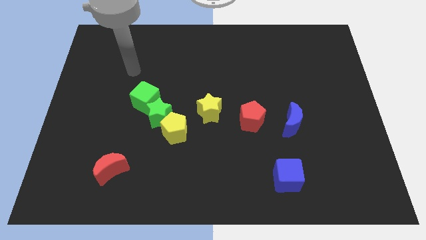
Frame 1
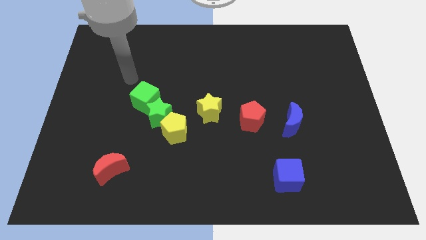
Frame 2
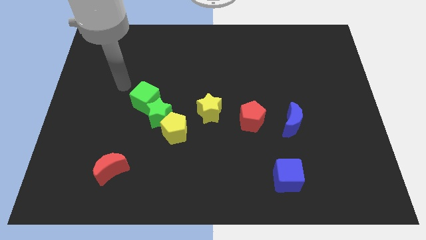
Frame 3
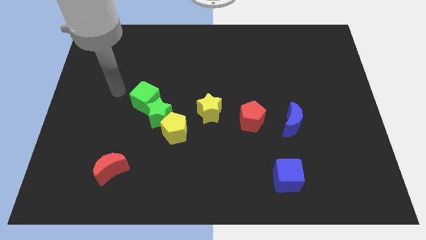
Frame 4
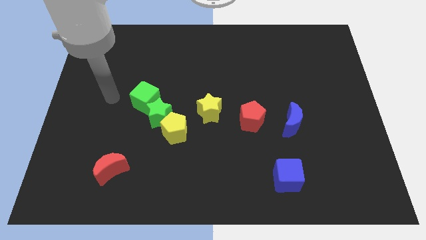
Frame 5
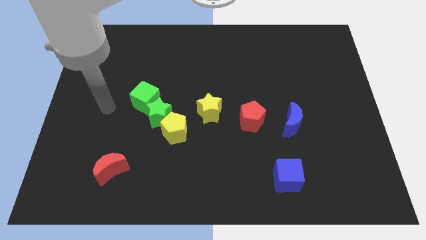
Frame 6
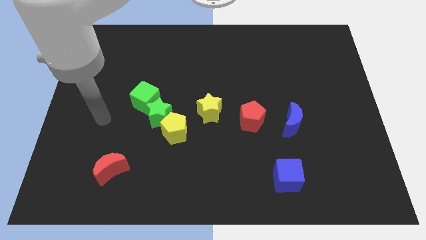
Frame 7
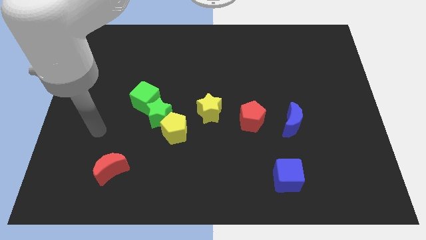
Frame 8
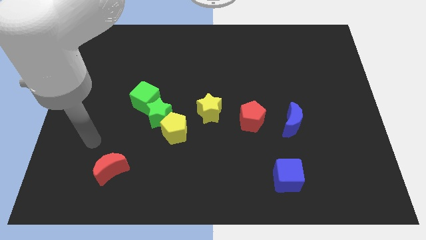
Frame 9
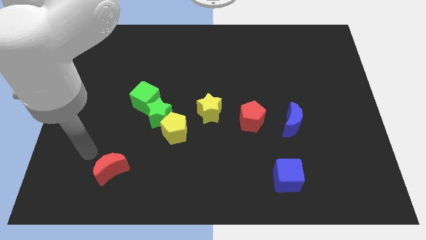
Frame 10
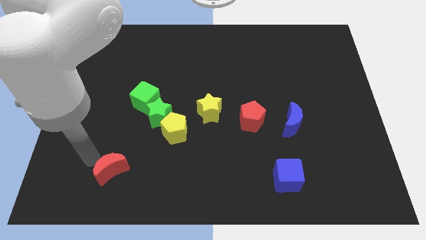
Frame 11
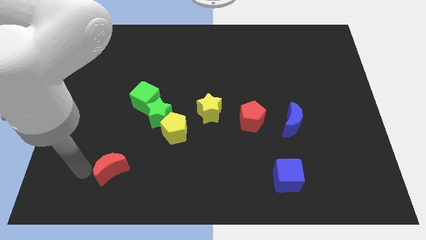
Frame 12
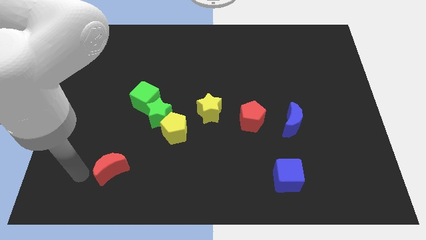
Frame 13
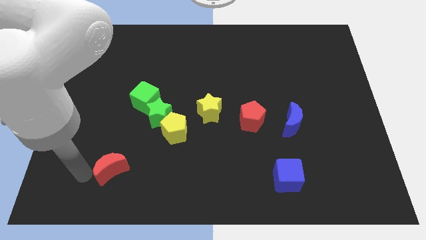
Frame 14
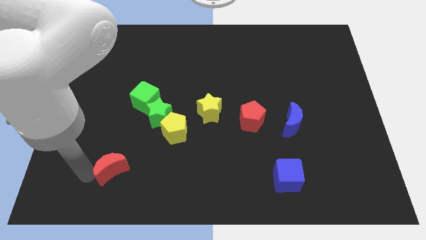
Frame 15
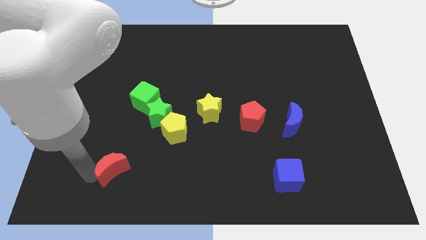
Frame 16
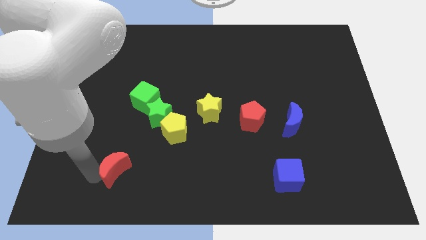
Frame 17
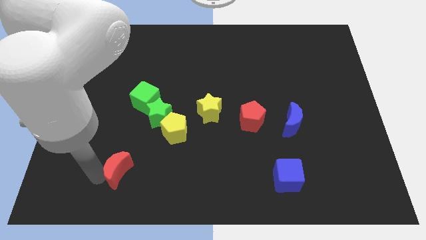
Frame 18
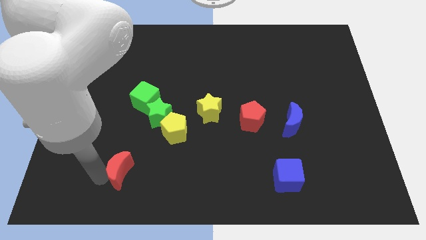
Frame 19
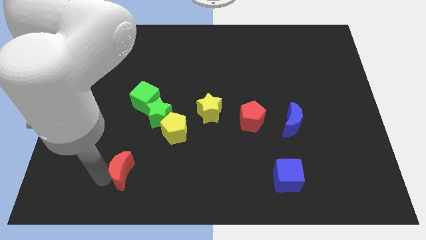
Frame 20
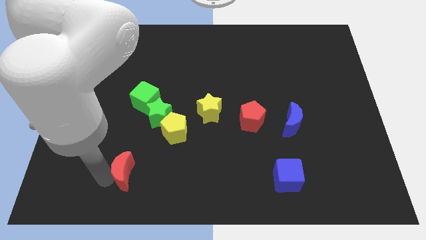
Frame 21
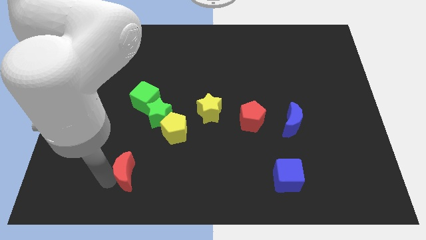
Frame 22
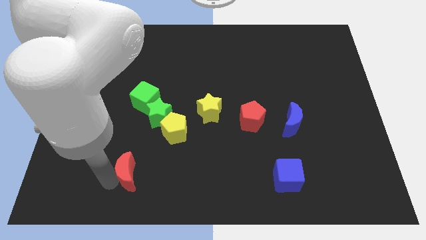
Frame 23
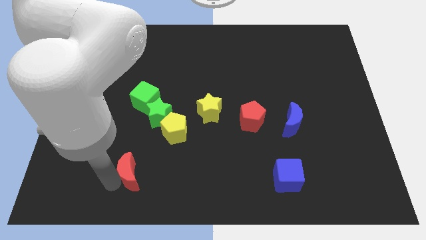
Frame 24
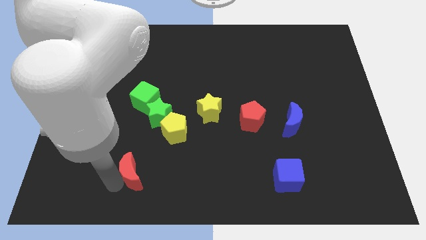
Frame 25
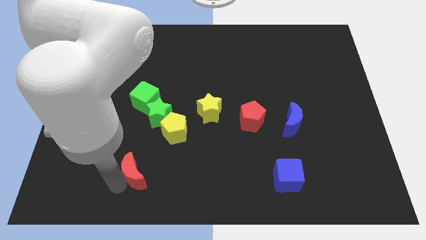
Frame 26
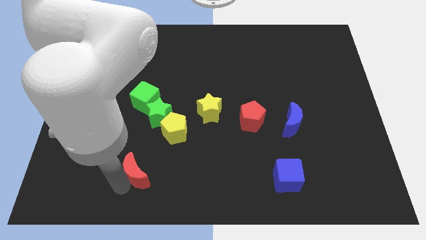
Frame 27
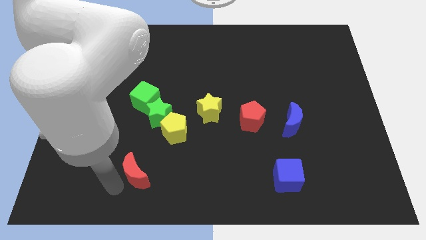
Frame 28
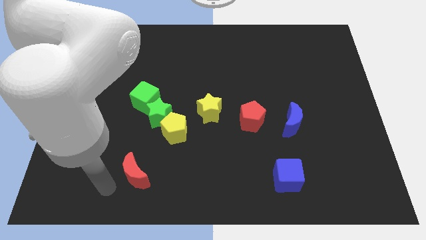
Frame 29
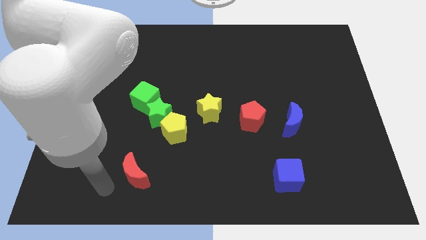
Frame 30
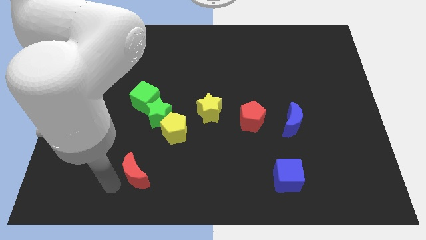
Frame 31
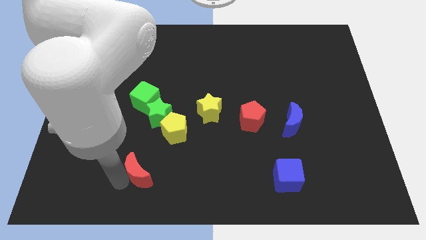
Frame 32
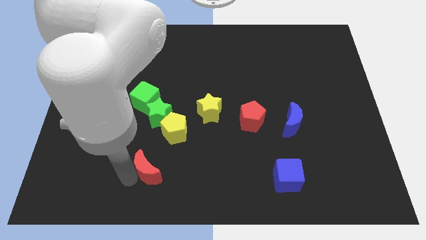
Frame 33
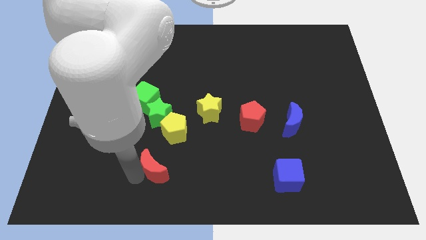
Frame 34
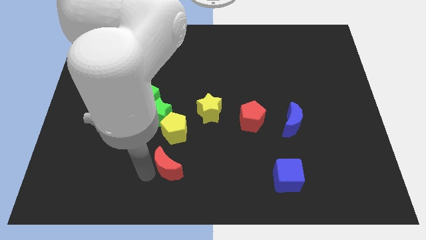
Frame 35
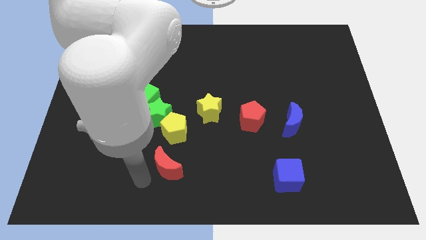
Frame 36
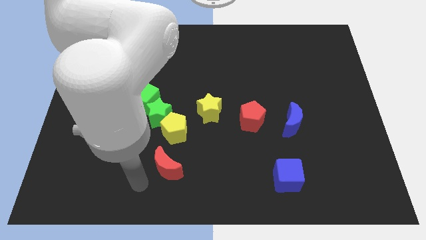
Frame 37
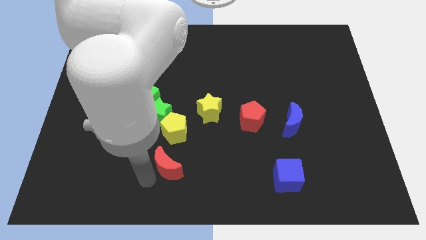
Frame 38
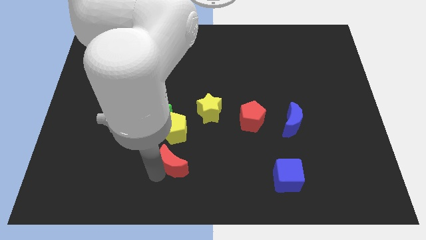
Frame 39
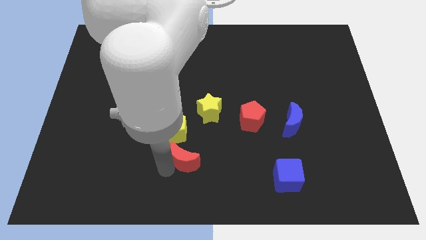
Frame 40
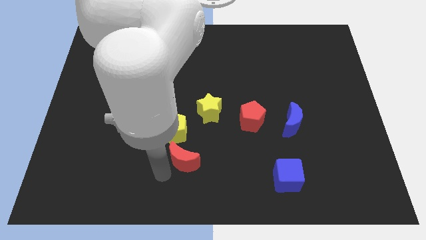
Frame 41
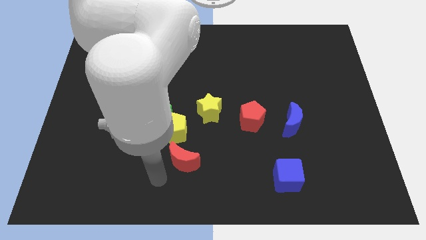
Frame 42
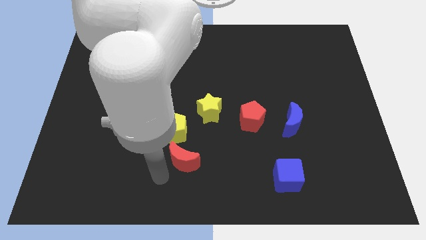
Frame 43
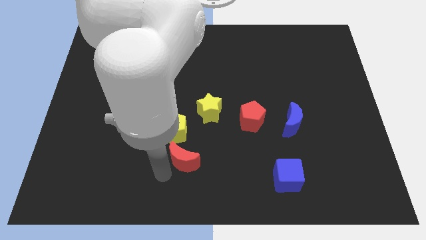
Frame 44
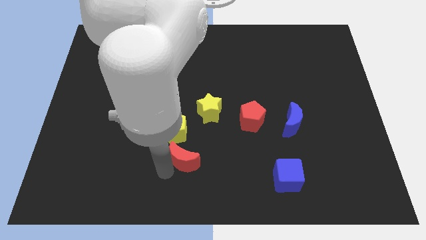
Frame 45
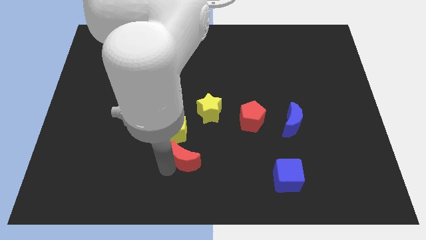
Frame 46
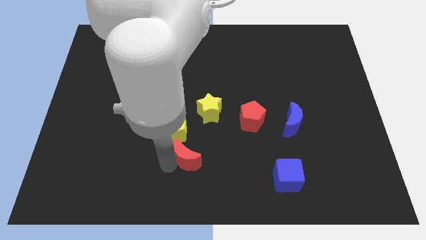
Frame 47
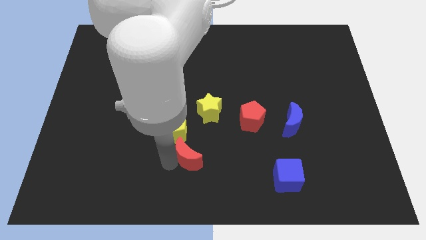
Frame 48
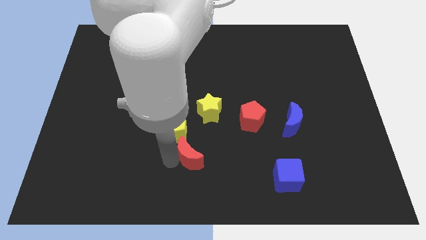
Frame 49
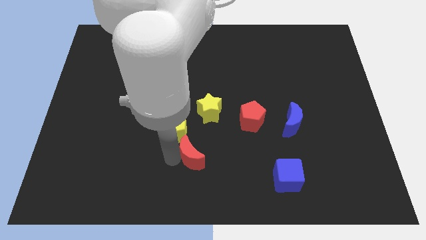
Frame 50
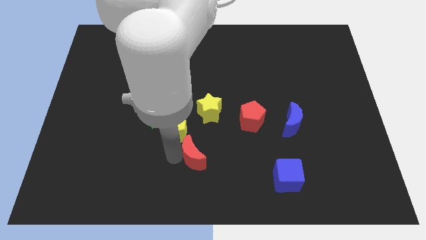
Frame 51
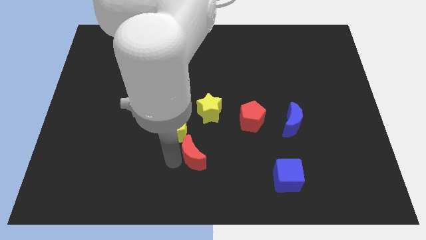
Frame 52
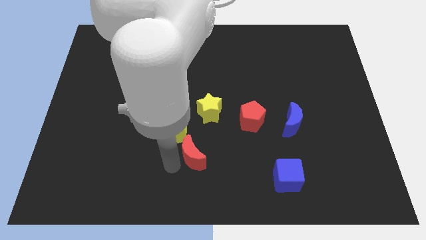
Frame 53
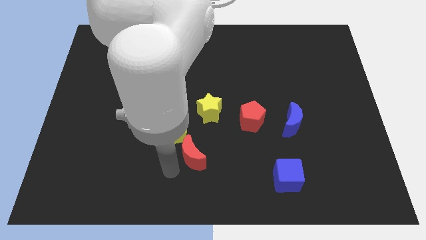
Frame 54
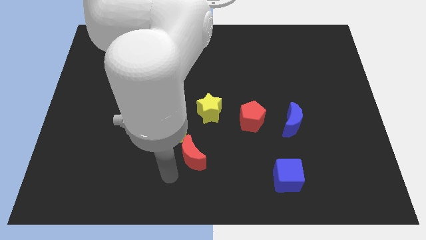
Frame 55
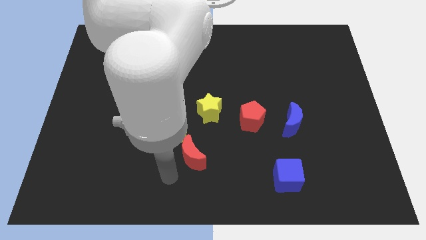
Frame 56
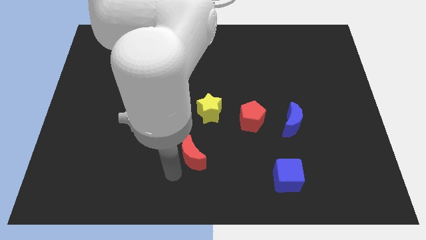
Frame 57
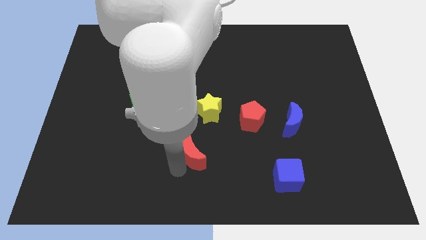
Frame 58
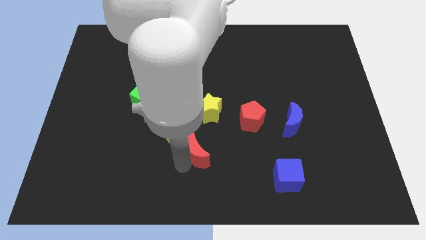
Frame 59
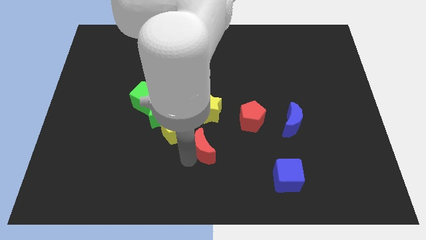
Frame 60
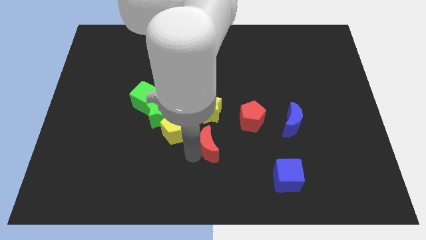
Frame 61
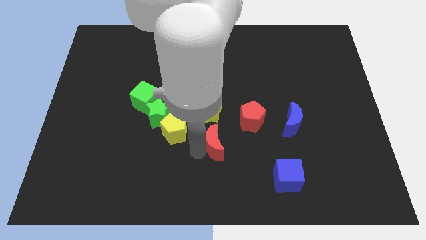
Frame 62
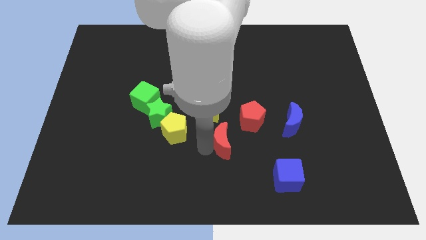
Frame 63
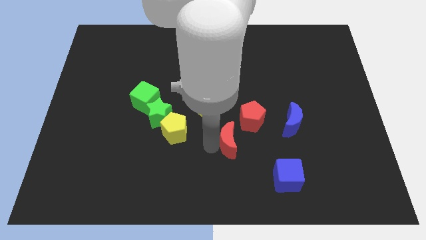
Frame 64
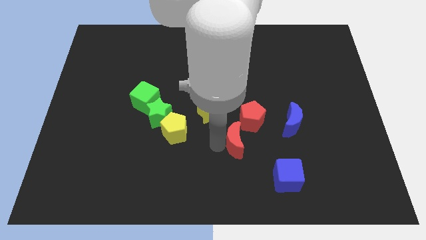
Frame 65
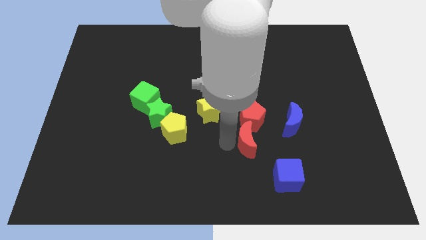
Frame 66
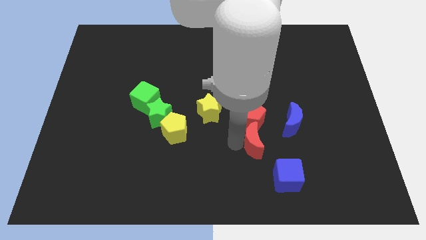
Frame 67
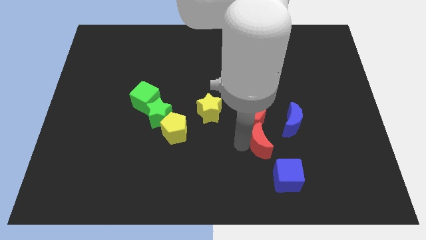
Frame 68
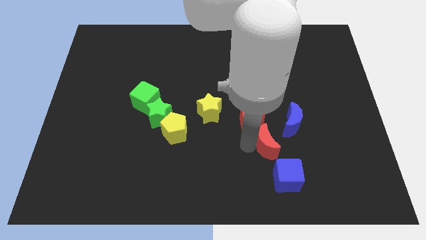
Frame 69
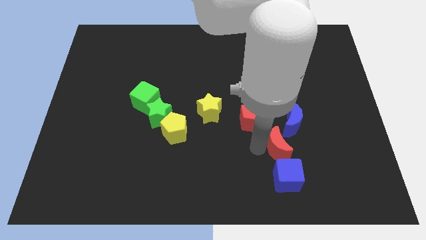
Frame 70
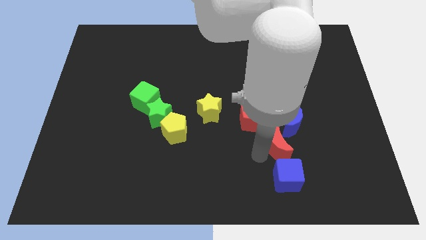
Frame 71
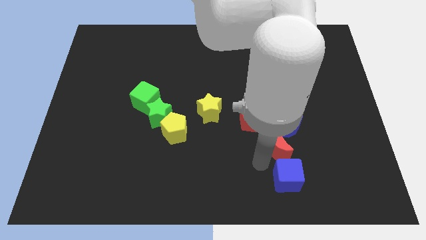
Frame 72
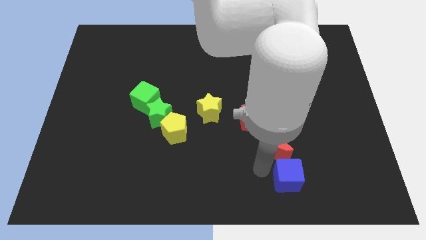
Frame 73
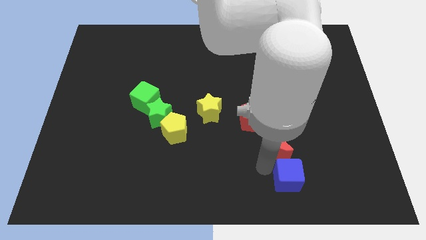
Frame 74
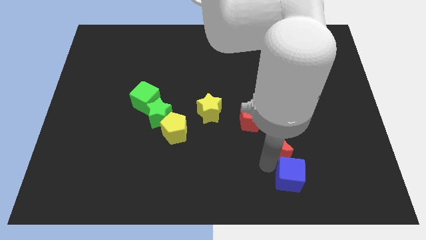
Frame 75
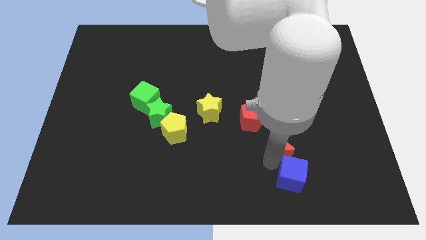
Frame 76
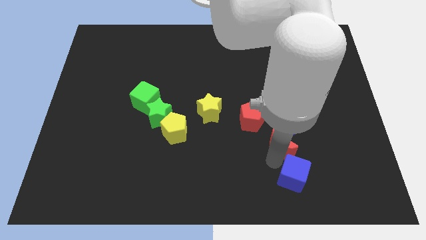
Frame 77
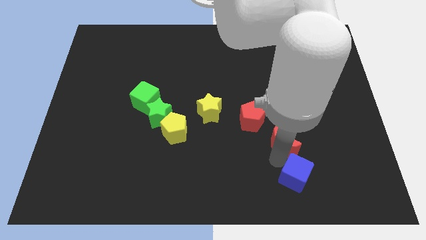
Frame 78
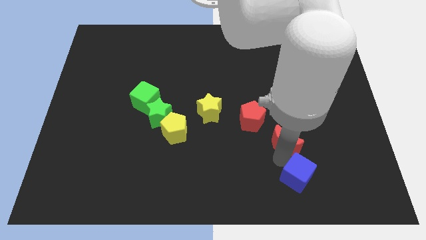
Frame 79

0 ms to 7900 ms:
slide the red moon towards the blue moon
